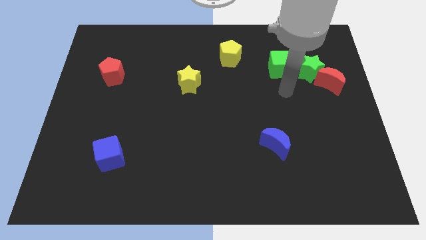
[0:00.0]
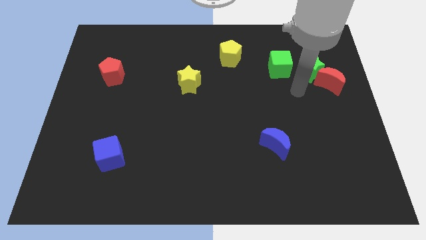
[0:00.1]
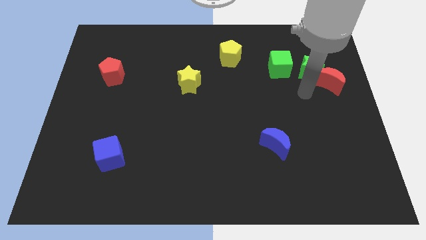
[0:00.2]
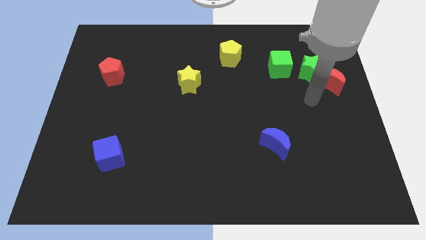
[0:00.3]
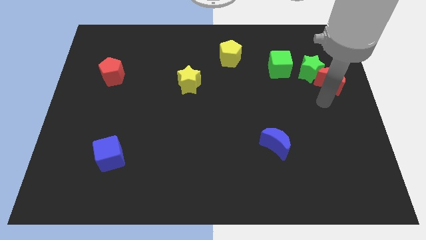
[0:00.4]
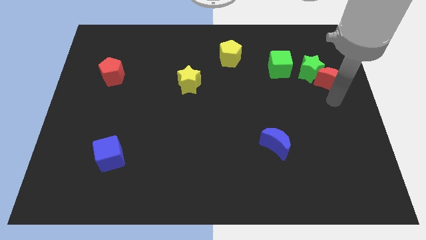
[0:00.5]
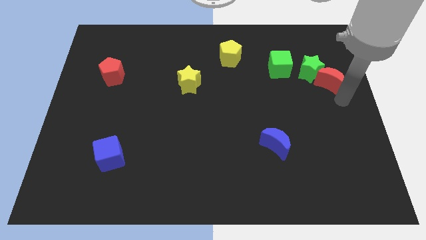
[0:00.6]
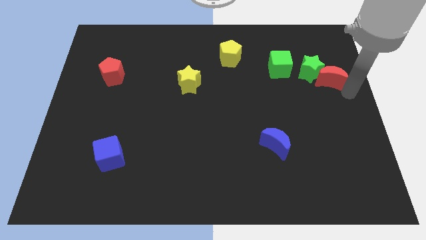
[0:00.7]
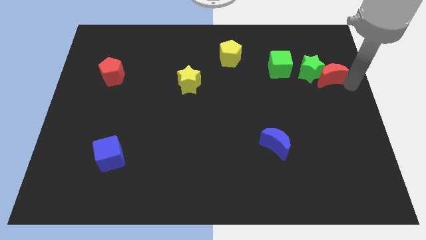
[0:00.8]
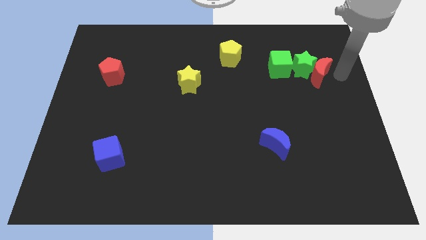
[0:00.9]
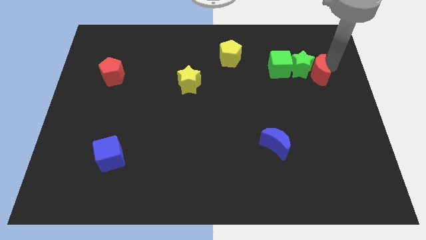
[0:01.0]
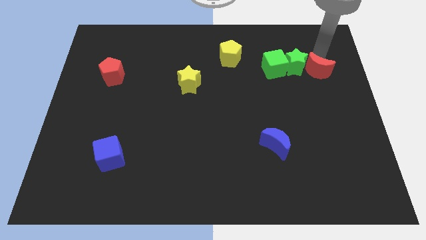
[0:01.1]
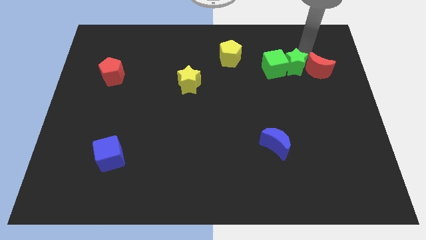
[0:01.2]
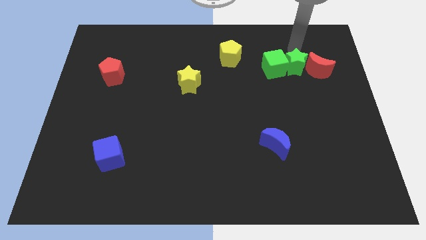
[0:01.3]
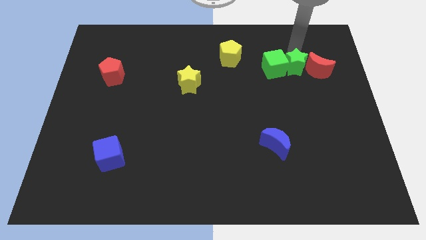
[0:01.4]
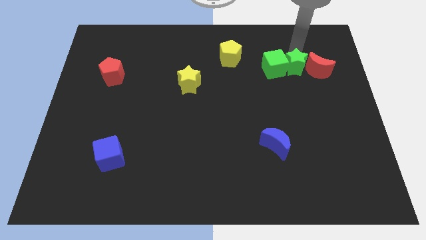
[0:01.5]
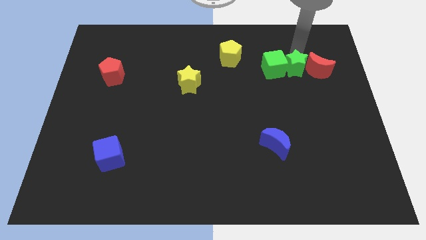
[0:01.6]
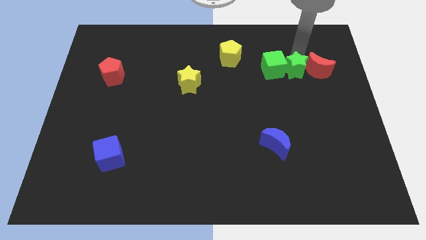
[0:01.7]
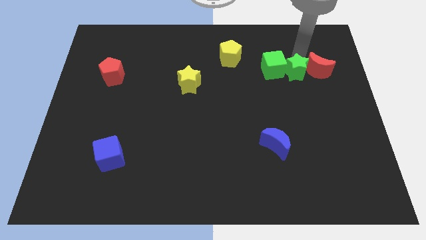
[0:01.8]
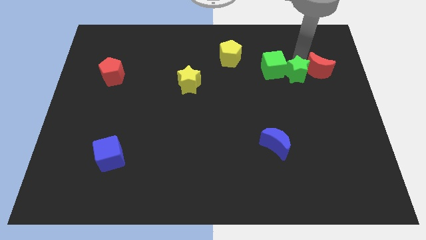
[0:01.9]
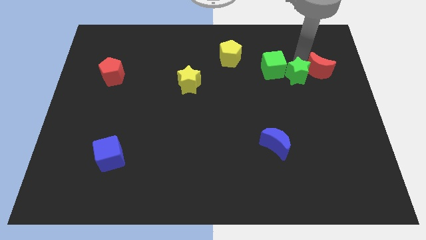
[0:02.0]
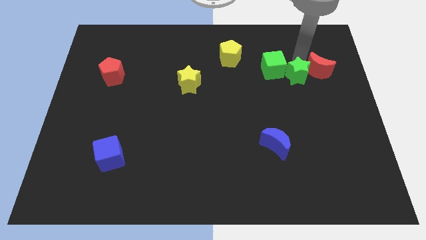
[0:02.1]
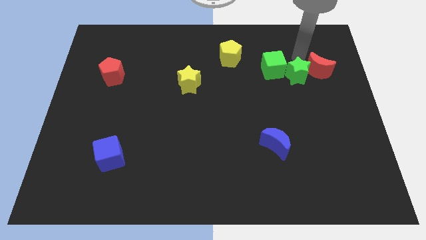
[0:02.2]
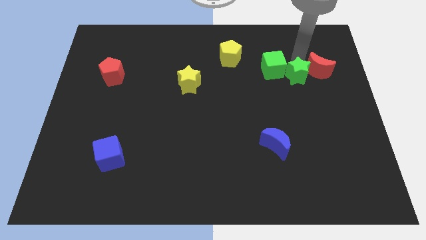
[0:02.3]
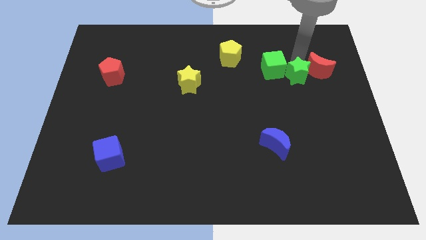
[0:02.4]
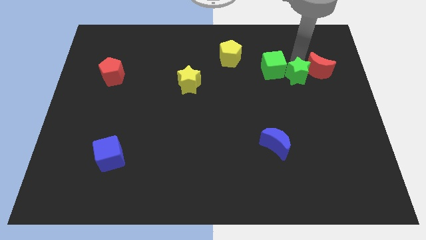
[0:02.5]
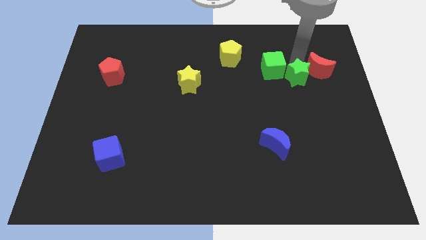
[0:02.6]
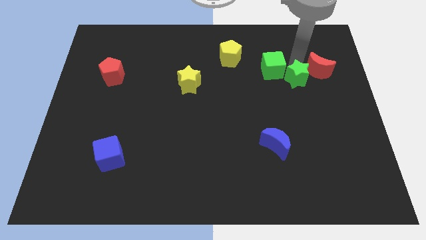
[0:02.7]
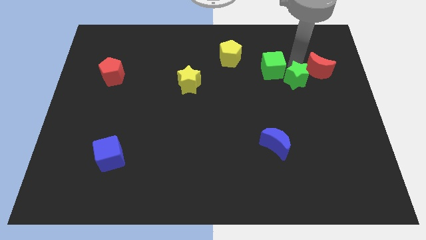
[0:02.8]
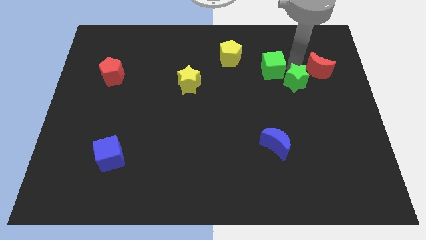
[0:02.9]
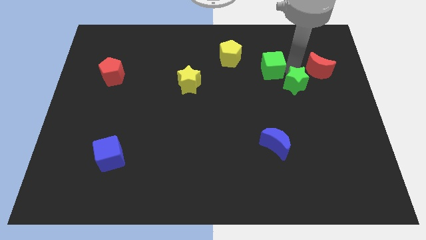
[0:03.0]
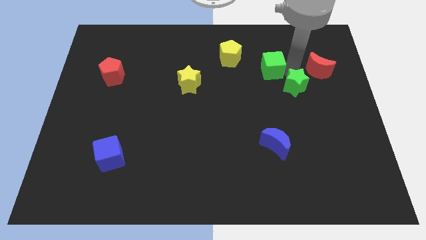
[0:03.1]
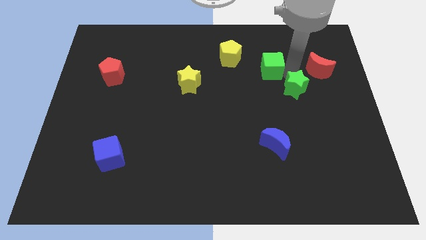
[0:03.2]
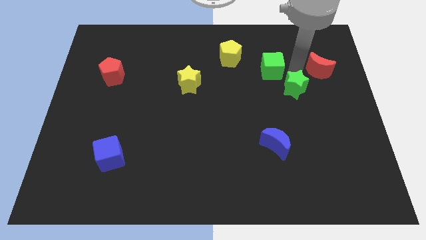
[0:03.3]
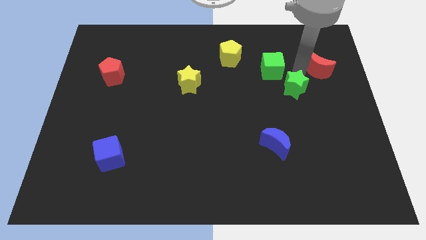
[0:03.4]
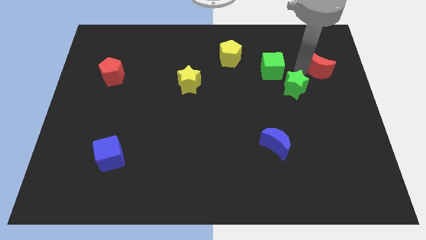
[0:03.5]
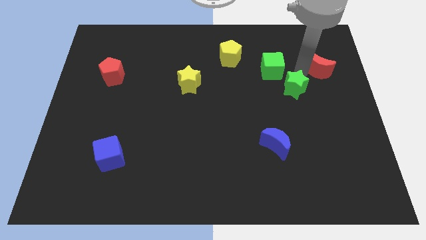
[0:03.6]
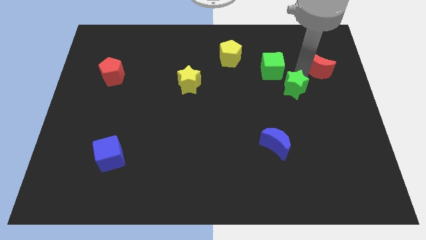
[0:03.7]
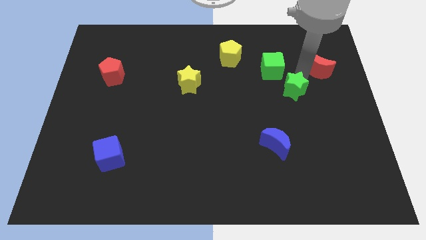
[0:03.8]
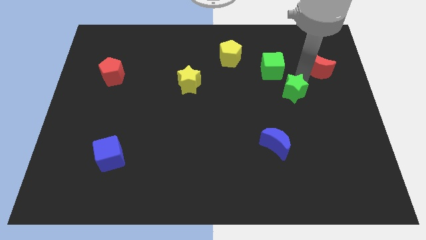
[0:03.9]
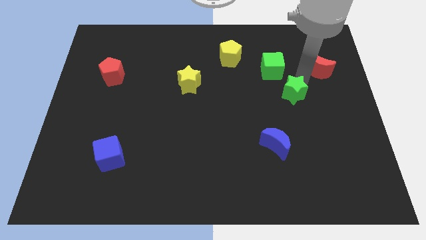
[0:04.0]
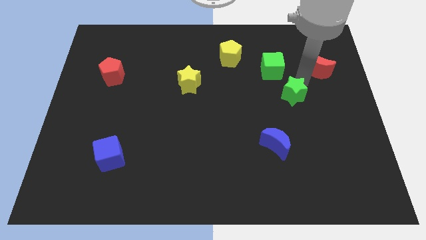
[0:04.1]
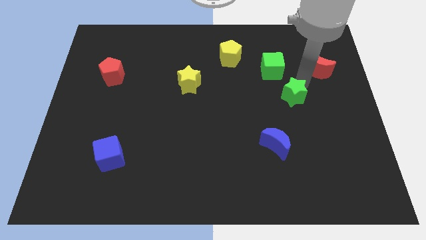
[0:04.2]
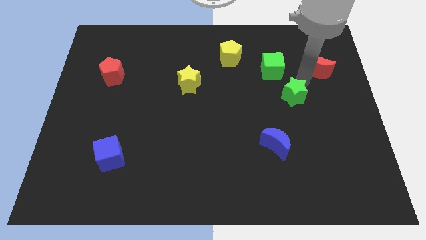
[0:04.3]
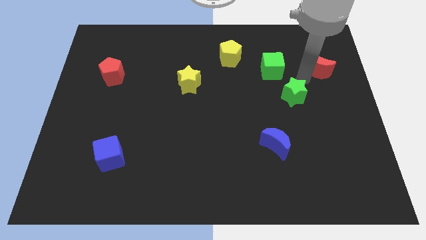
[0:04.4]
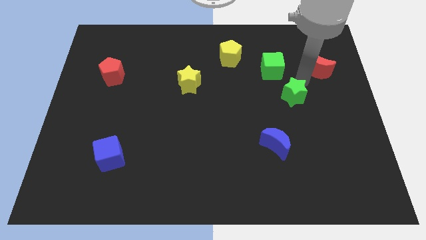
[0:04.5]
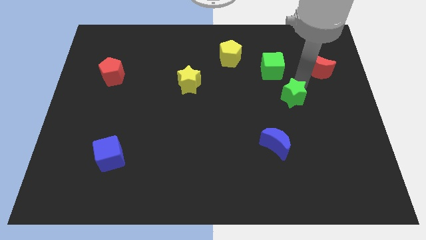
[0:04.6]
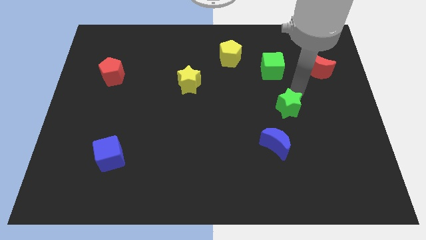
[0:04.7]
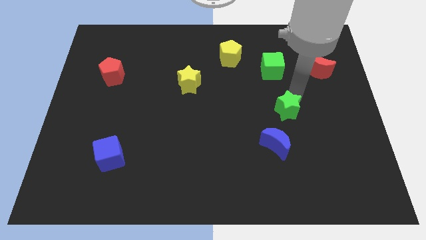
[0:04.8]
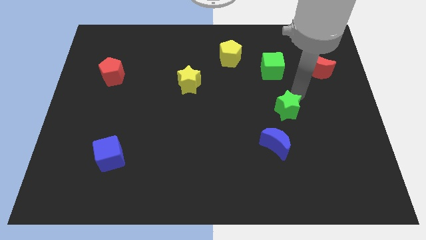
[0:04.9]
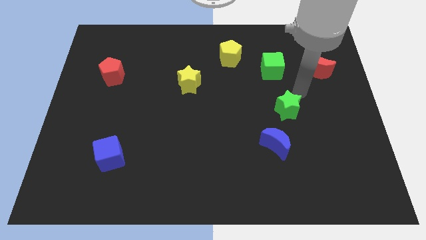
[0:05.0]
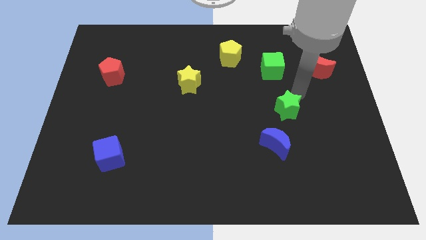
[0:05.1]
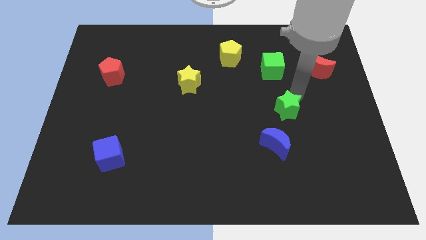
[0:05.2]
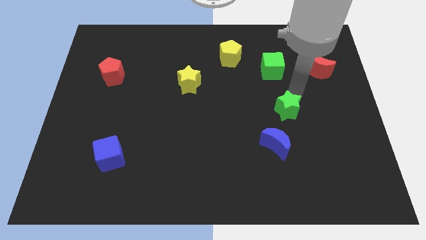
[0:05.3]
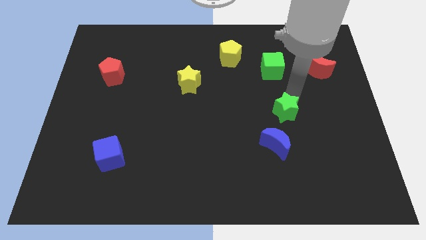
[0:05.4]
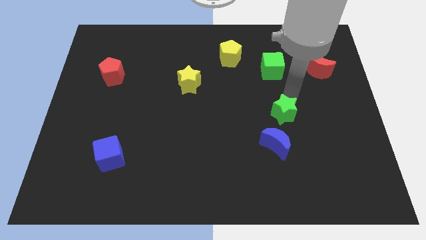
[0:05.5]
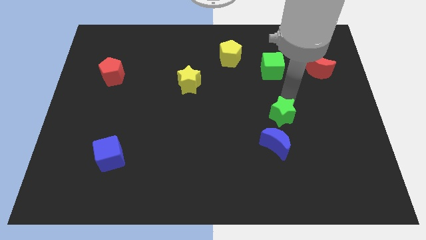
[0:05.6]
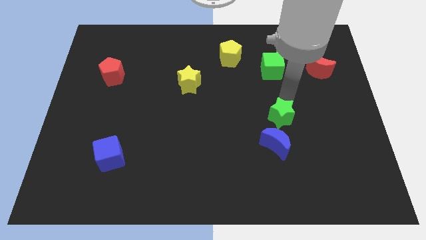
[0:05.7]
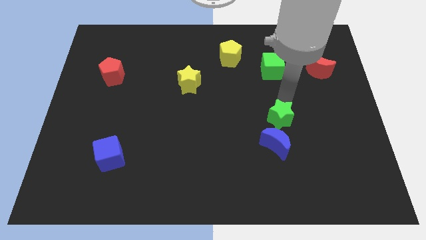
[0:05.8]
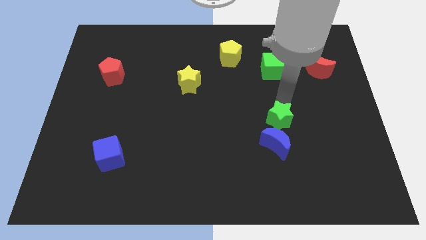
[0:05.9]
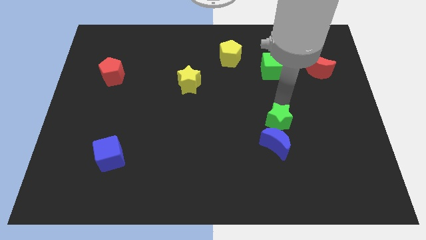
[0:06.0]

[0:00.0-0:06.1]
slide the green star close to the blue moon

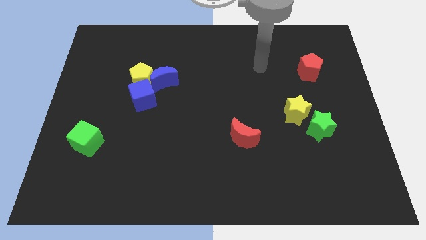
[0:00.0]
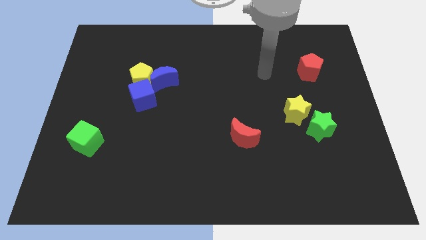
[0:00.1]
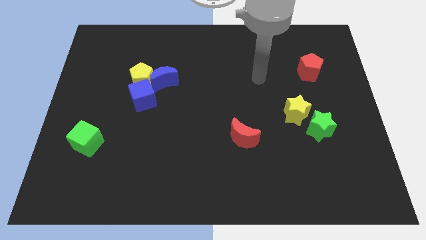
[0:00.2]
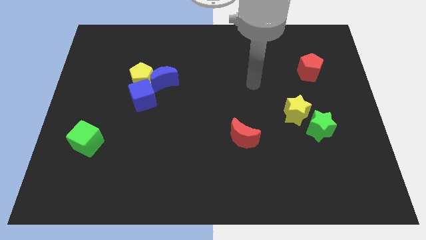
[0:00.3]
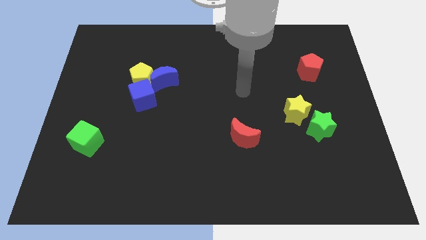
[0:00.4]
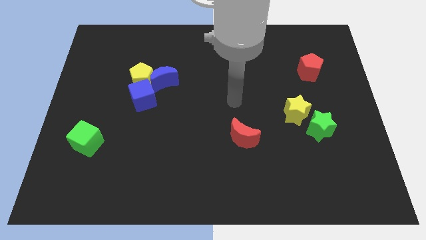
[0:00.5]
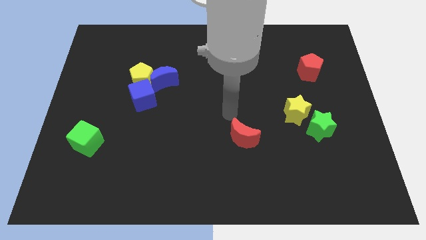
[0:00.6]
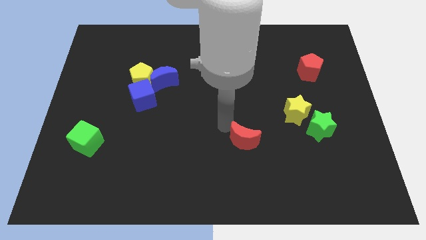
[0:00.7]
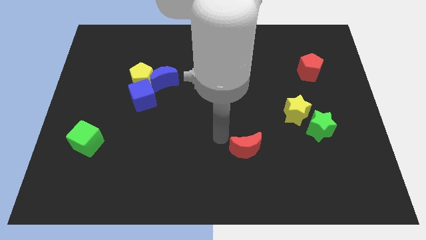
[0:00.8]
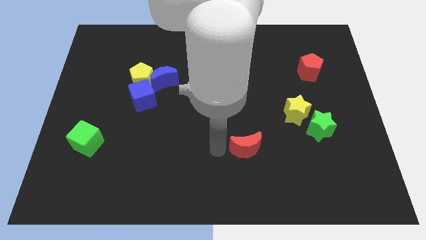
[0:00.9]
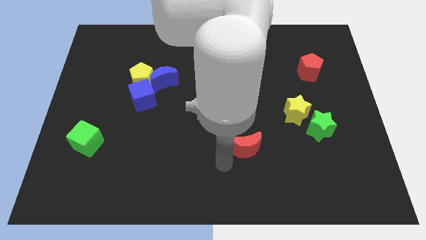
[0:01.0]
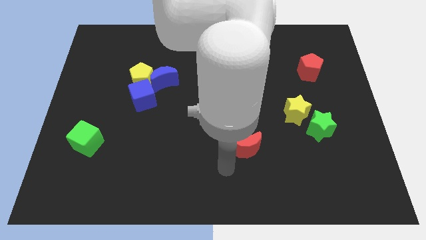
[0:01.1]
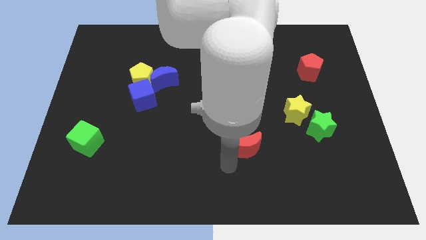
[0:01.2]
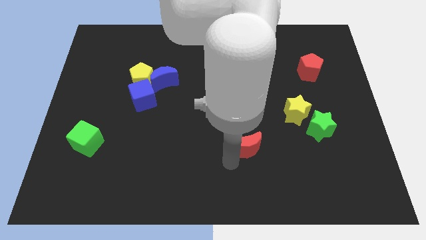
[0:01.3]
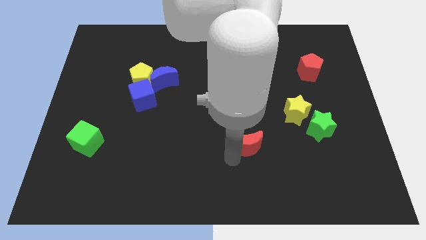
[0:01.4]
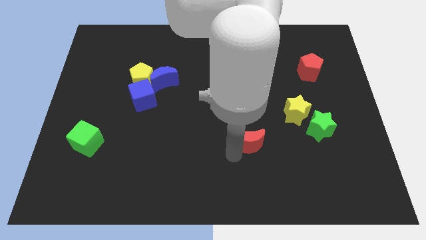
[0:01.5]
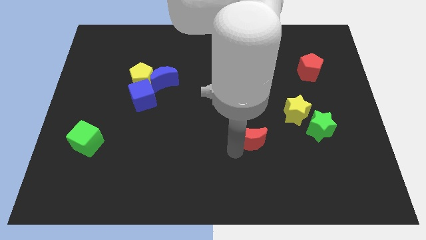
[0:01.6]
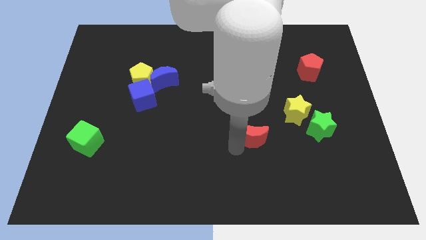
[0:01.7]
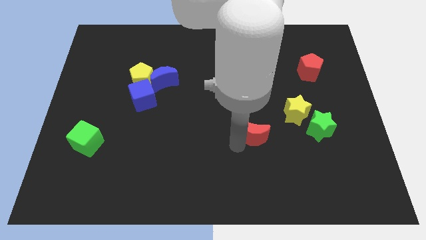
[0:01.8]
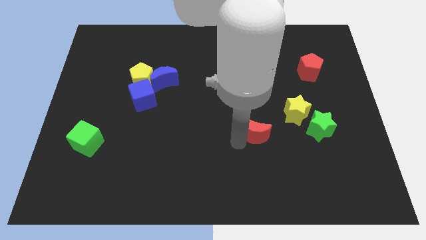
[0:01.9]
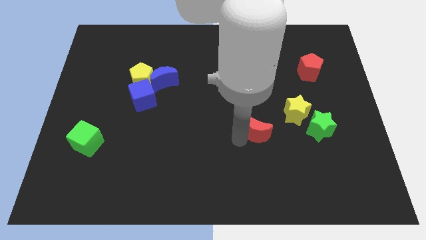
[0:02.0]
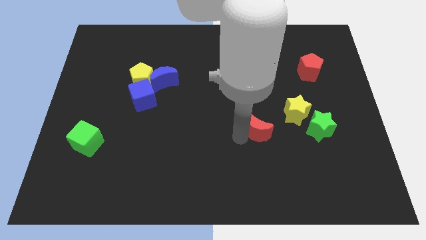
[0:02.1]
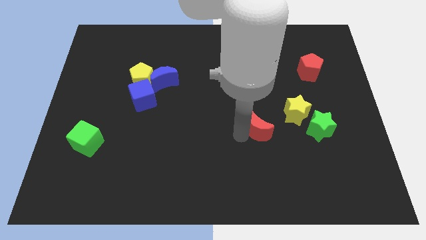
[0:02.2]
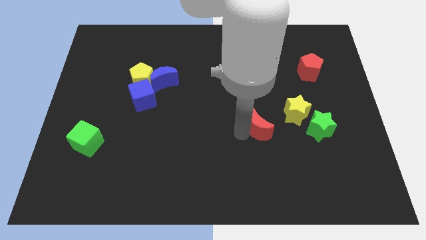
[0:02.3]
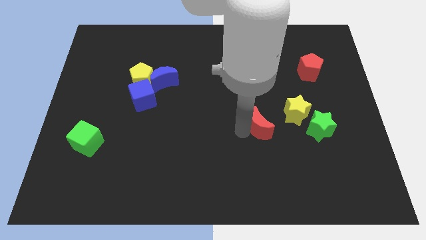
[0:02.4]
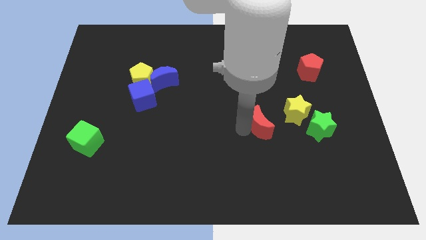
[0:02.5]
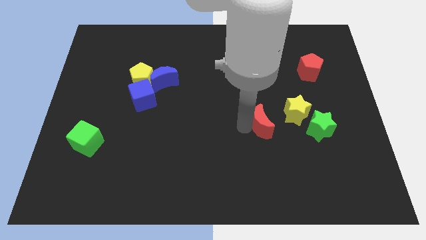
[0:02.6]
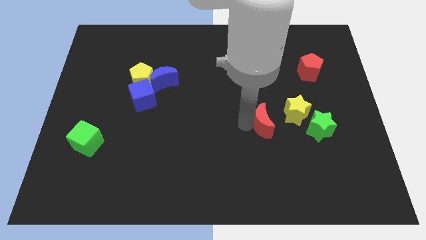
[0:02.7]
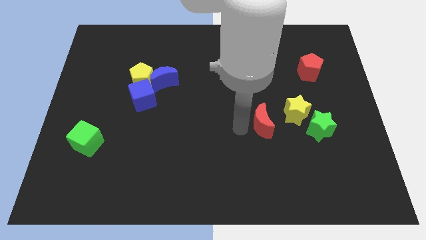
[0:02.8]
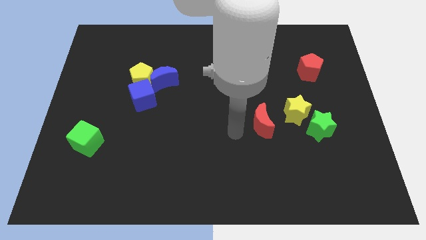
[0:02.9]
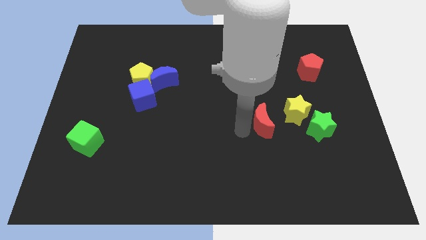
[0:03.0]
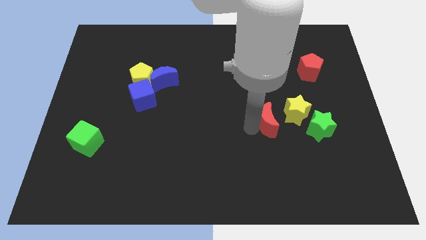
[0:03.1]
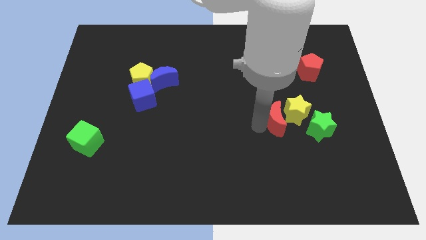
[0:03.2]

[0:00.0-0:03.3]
move the red moon towards the yellow star
